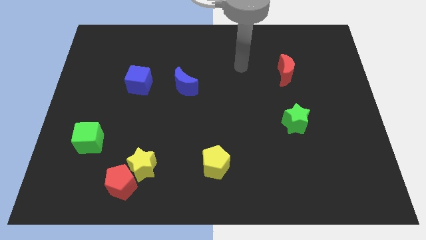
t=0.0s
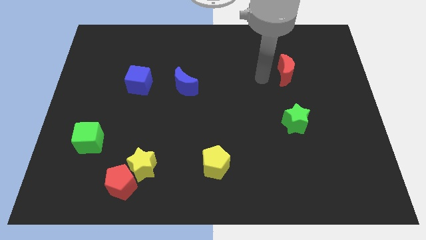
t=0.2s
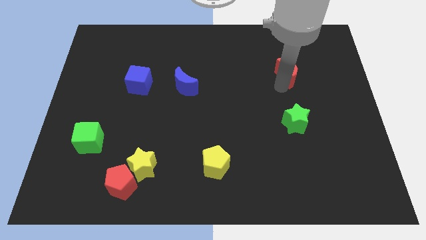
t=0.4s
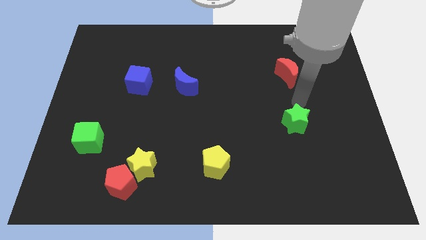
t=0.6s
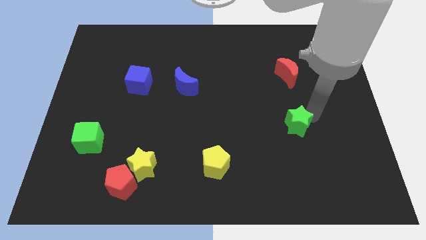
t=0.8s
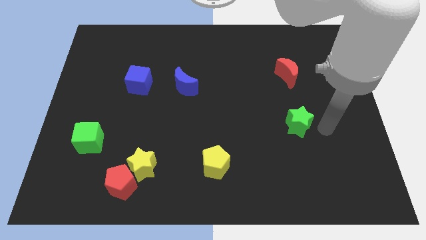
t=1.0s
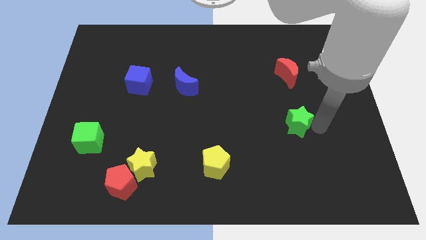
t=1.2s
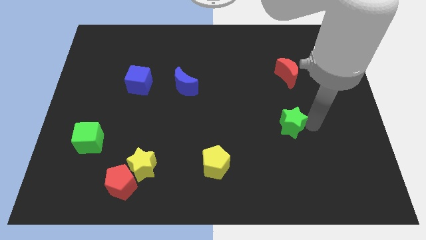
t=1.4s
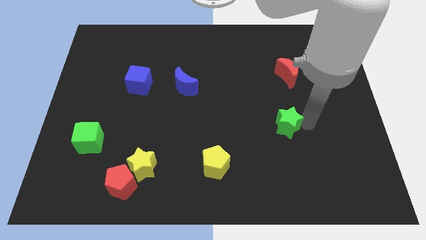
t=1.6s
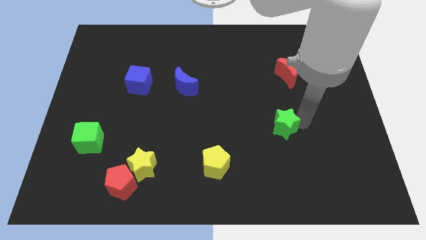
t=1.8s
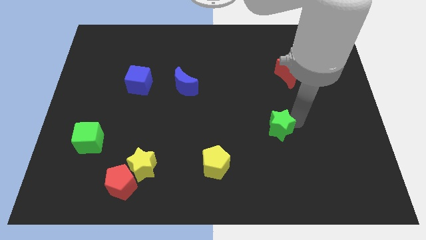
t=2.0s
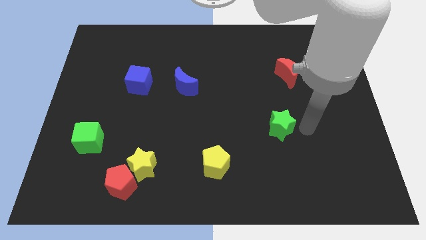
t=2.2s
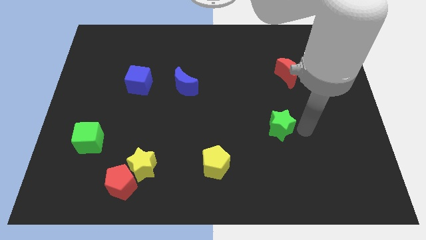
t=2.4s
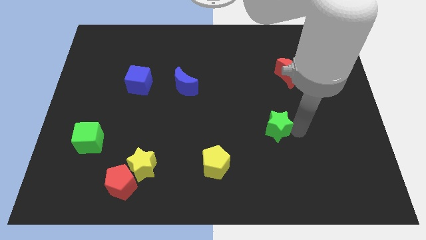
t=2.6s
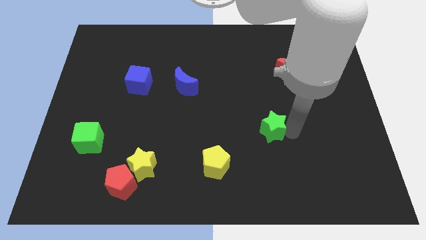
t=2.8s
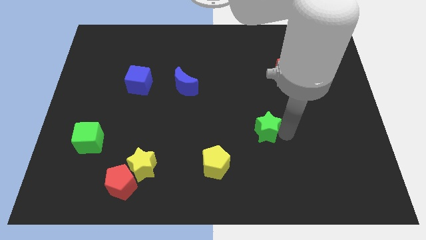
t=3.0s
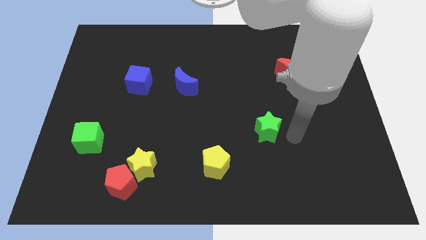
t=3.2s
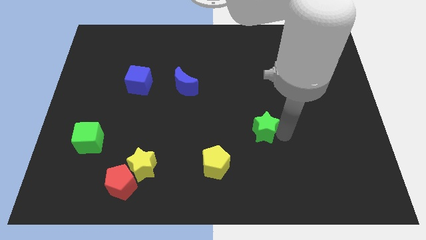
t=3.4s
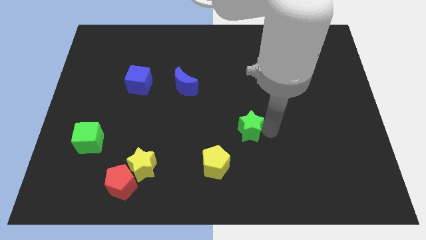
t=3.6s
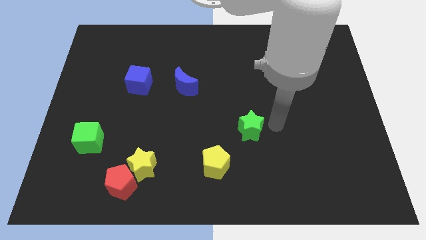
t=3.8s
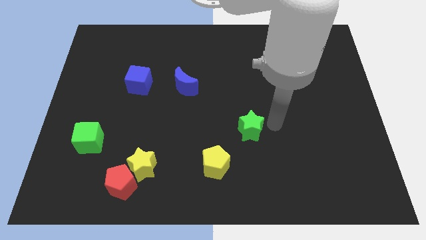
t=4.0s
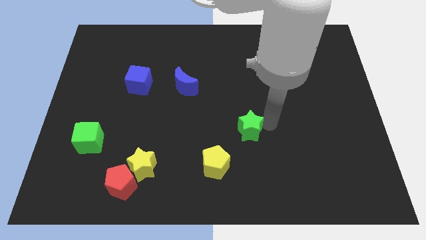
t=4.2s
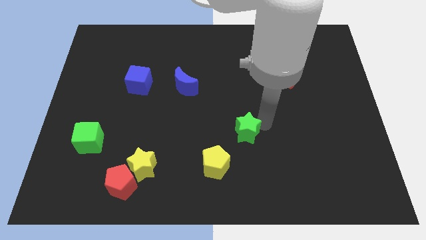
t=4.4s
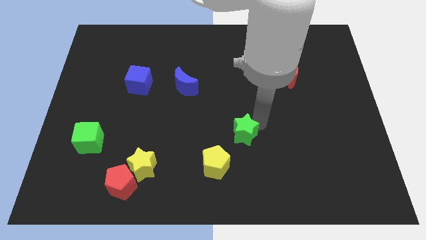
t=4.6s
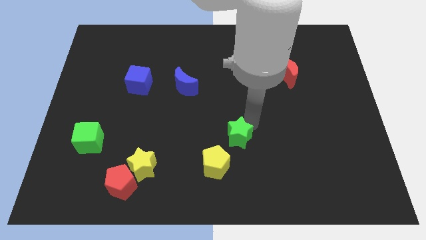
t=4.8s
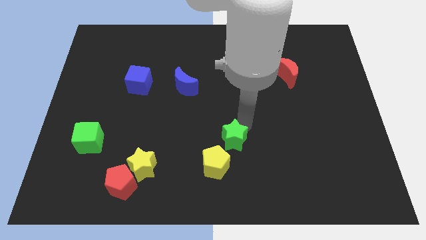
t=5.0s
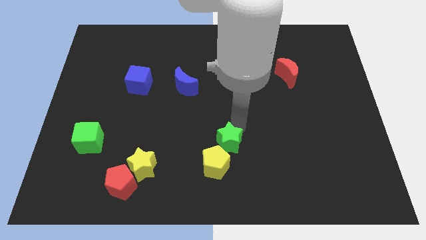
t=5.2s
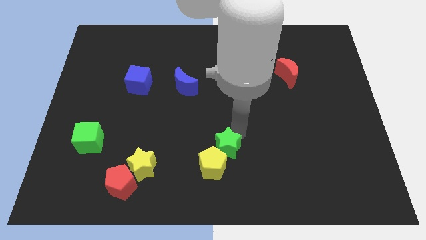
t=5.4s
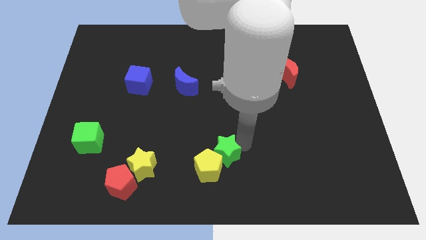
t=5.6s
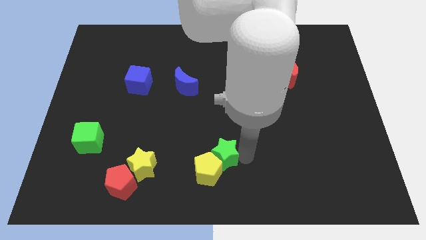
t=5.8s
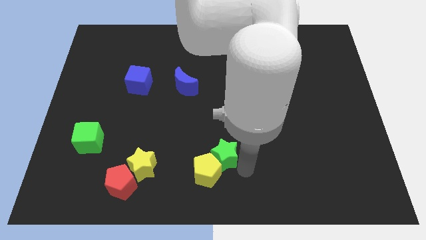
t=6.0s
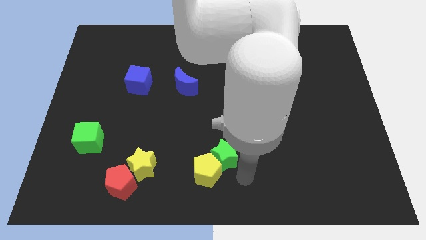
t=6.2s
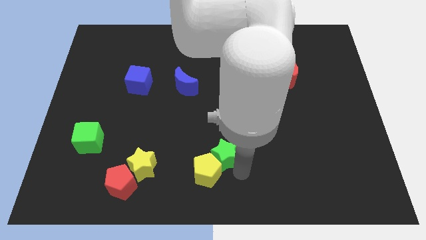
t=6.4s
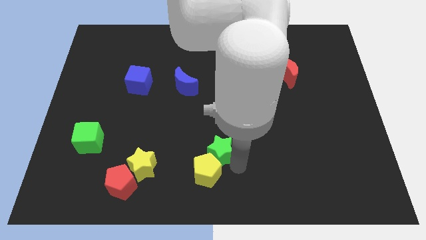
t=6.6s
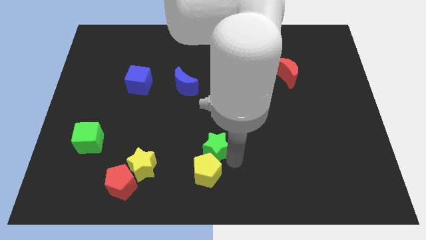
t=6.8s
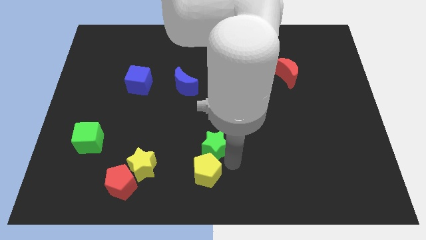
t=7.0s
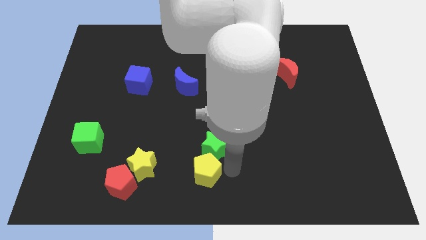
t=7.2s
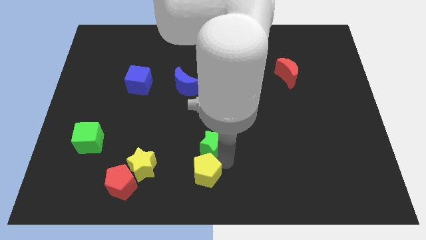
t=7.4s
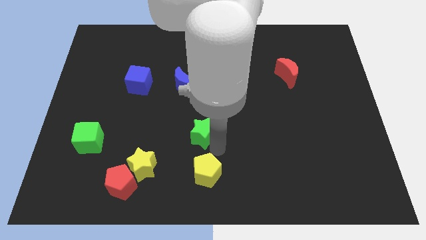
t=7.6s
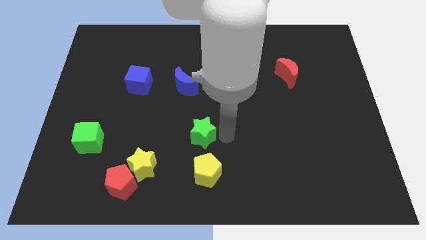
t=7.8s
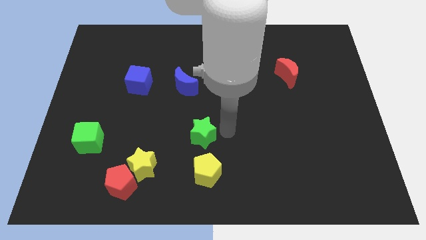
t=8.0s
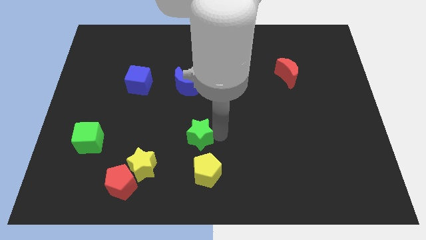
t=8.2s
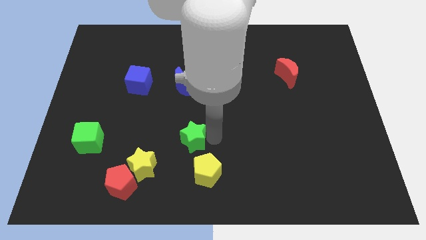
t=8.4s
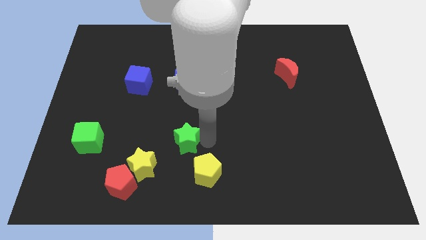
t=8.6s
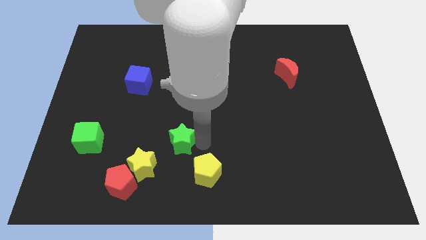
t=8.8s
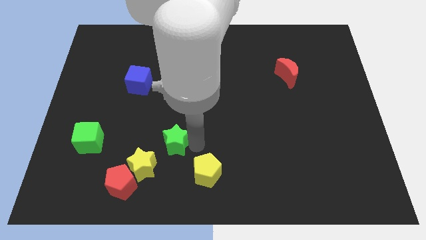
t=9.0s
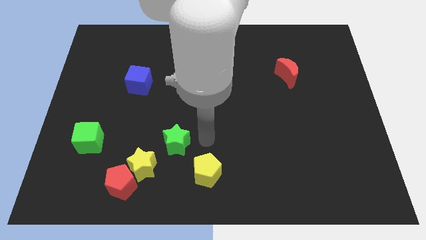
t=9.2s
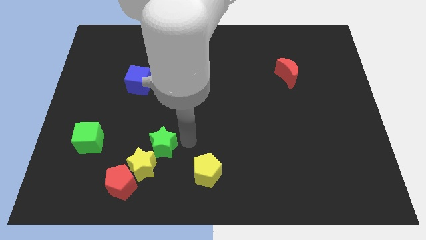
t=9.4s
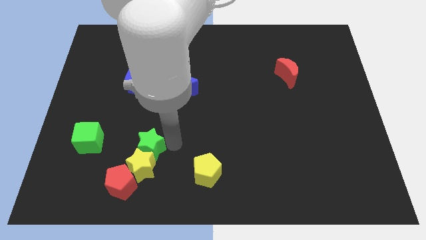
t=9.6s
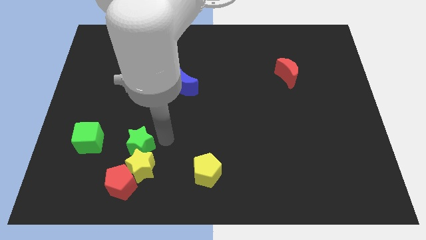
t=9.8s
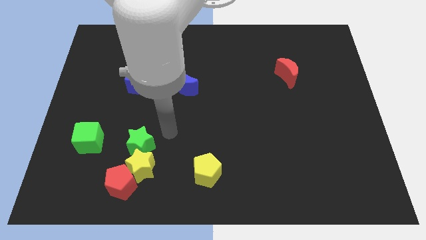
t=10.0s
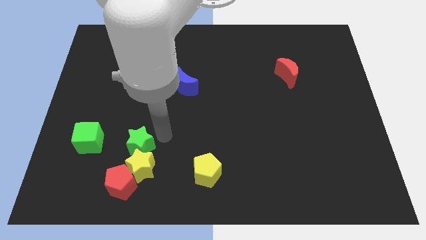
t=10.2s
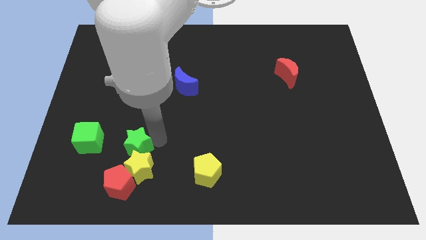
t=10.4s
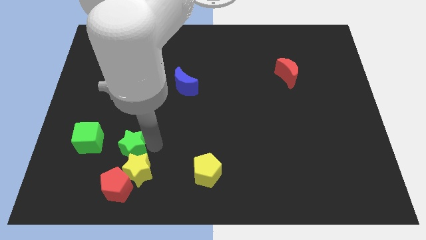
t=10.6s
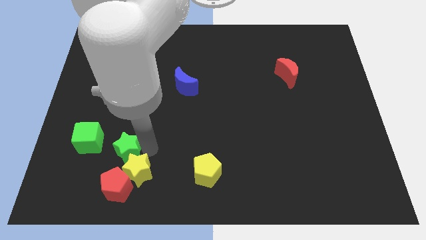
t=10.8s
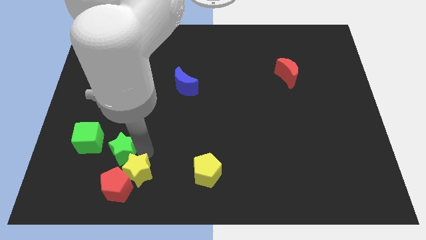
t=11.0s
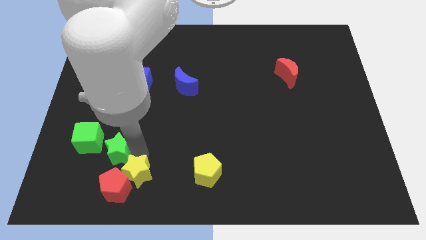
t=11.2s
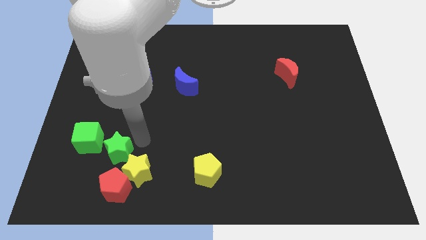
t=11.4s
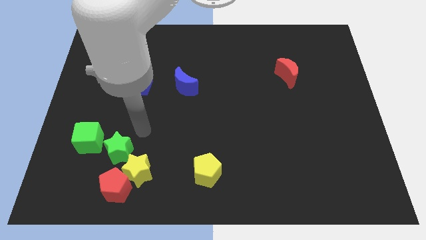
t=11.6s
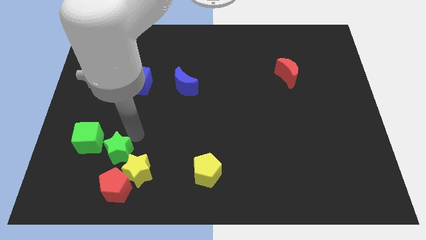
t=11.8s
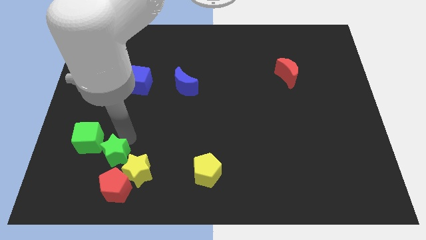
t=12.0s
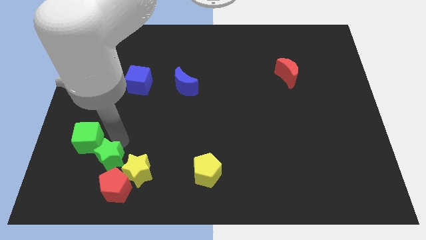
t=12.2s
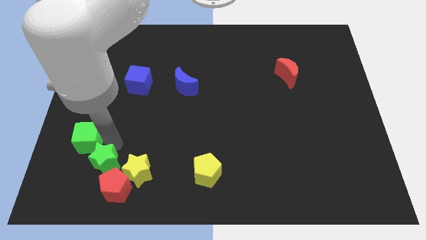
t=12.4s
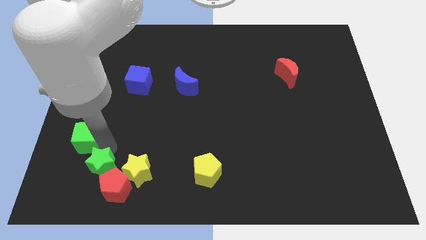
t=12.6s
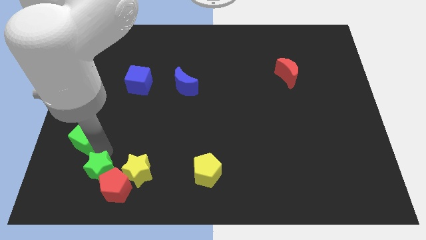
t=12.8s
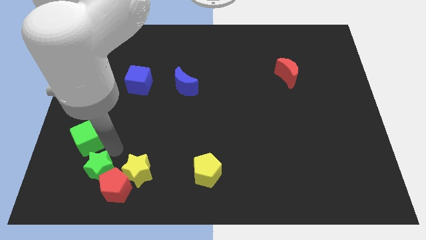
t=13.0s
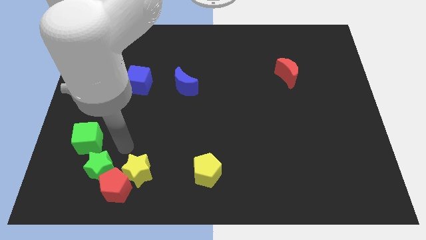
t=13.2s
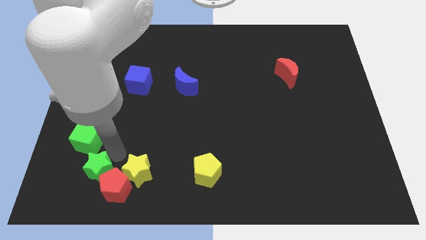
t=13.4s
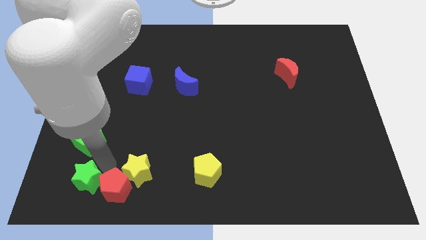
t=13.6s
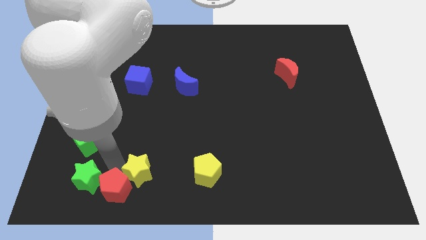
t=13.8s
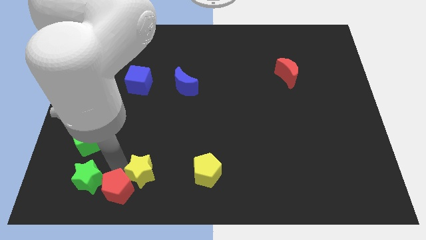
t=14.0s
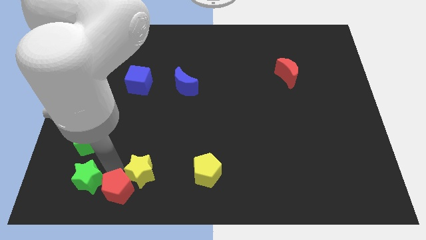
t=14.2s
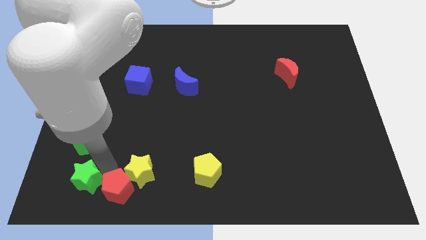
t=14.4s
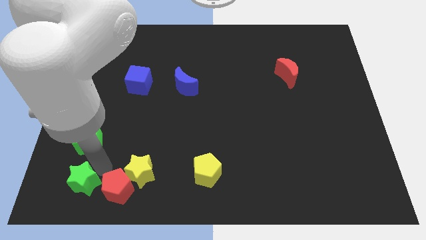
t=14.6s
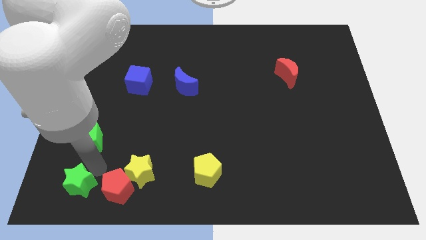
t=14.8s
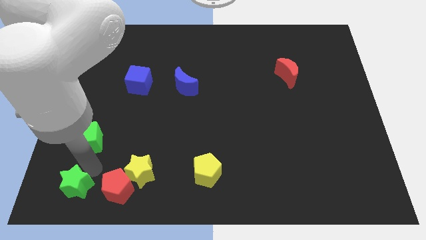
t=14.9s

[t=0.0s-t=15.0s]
move the green star to the bottom left

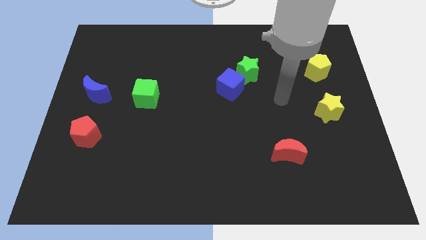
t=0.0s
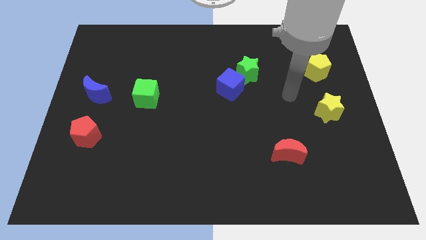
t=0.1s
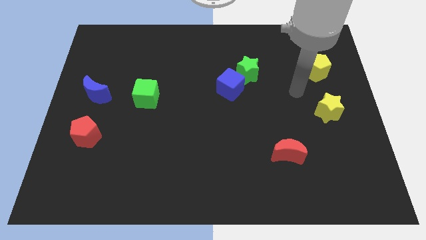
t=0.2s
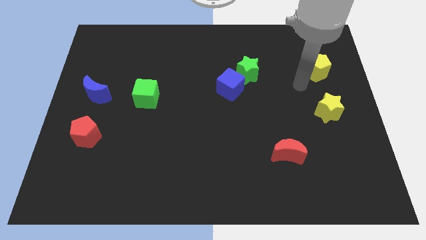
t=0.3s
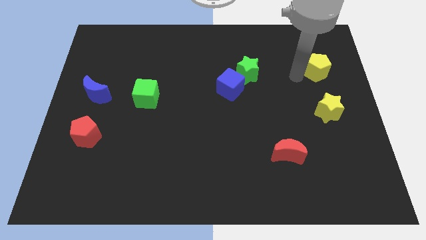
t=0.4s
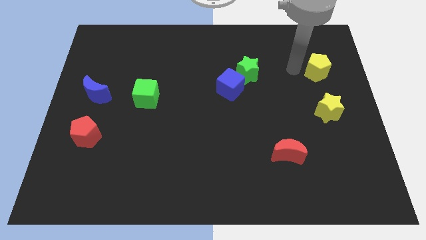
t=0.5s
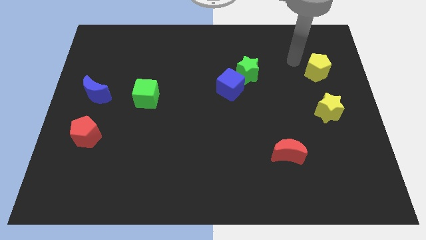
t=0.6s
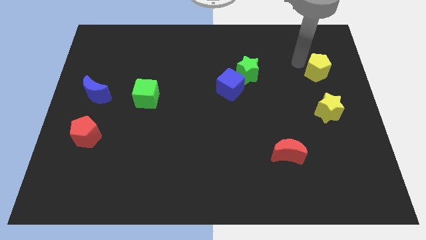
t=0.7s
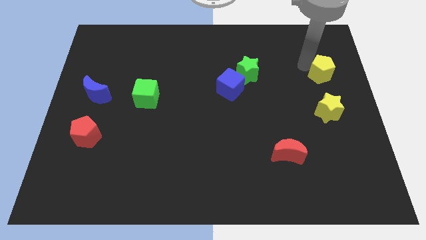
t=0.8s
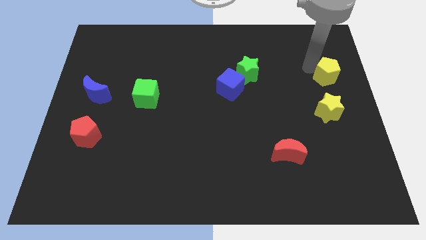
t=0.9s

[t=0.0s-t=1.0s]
push the yellow pentagon to the right side of the board
